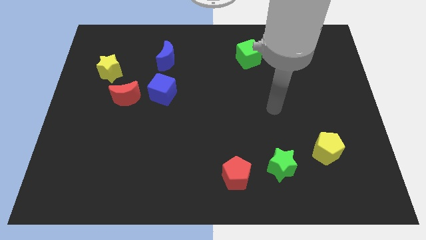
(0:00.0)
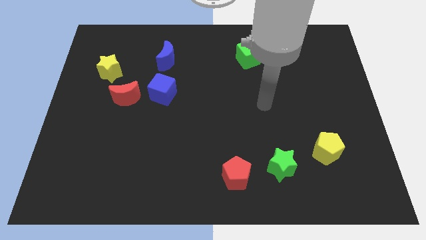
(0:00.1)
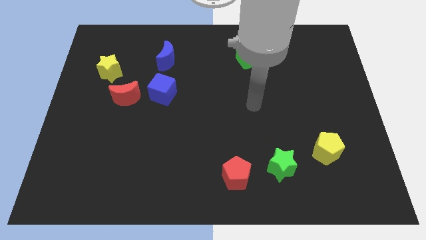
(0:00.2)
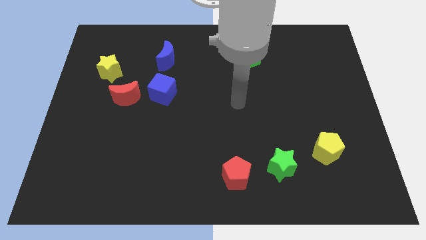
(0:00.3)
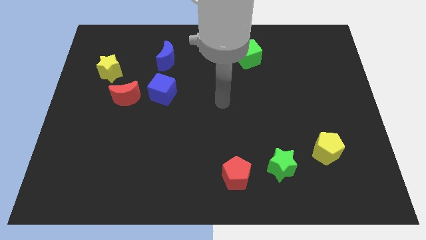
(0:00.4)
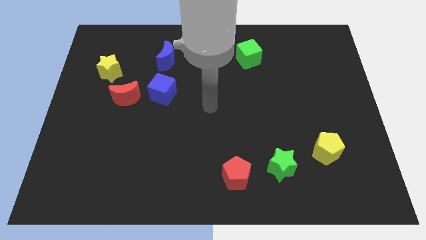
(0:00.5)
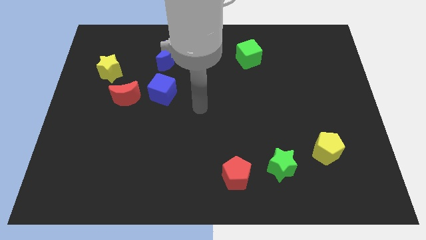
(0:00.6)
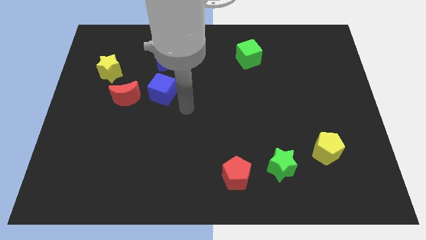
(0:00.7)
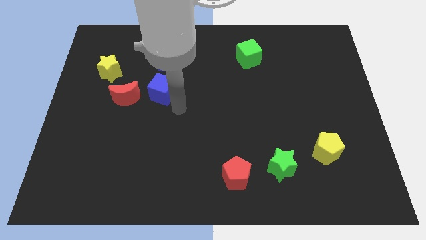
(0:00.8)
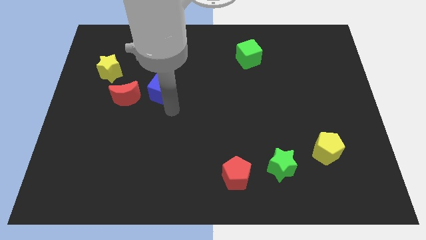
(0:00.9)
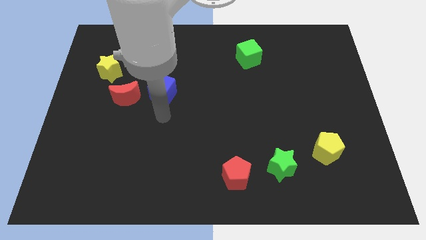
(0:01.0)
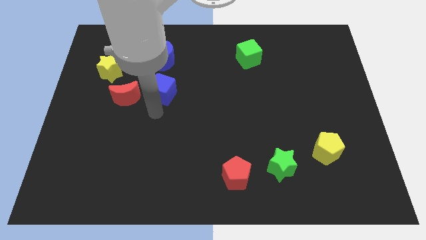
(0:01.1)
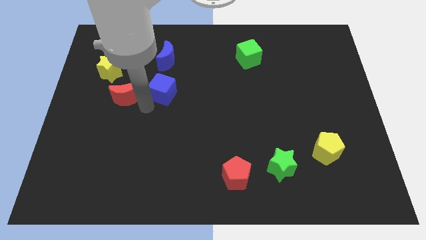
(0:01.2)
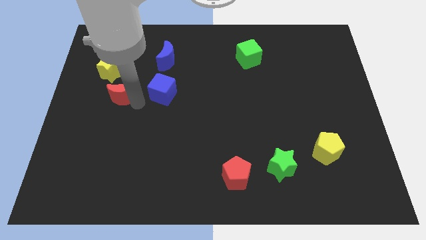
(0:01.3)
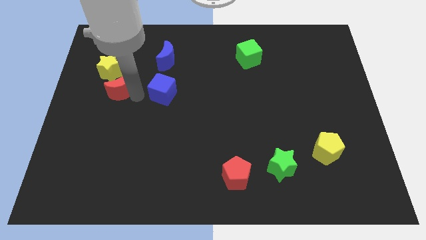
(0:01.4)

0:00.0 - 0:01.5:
move the blue cube away from the red moon

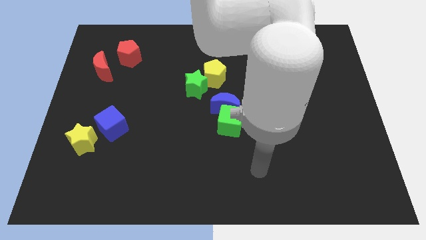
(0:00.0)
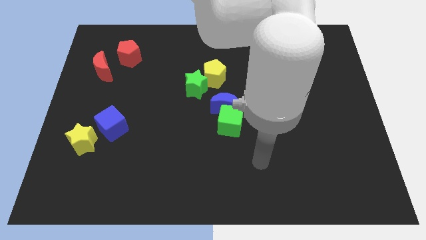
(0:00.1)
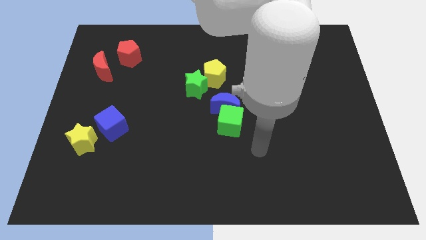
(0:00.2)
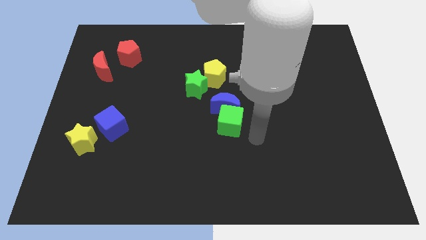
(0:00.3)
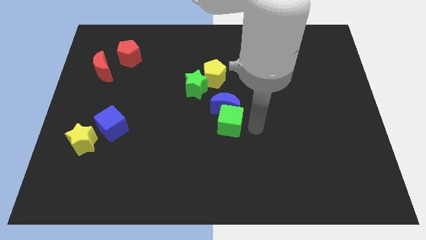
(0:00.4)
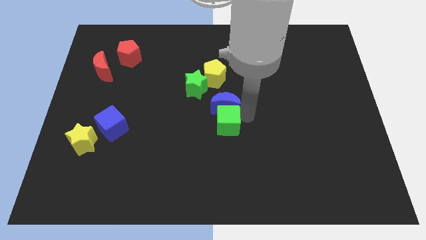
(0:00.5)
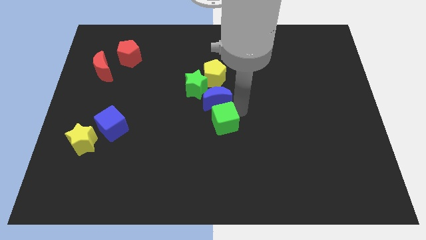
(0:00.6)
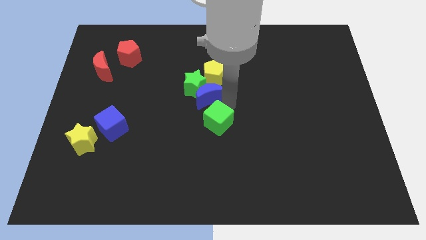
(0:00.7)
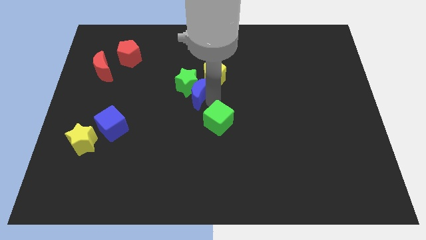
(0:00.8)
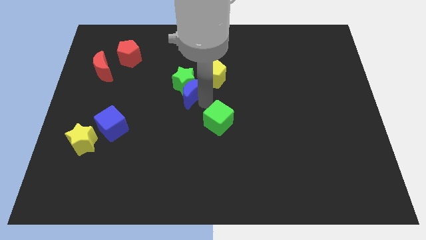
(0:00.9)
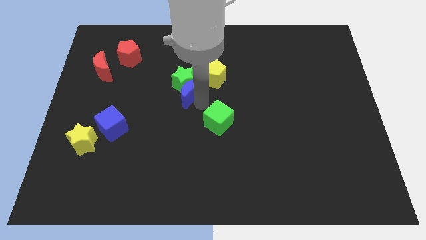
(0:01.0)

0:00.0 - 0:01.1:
move the green cube away from the blue moon

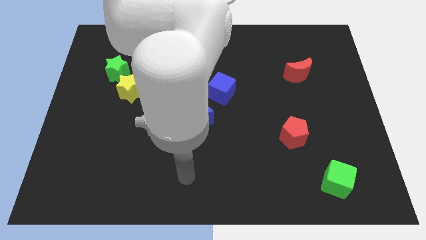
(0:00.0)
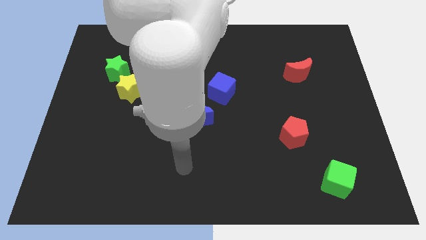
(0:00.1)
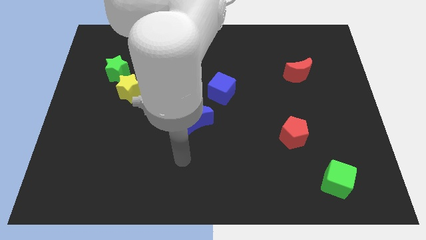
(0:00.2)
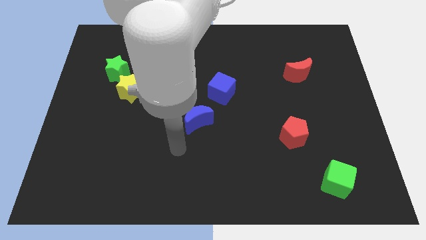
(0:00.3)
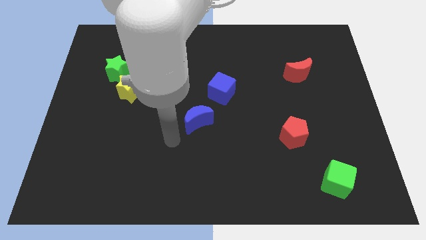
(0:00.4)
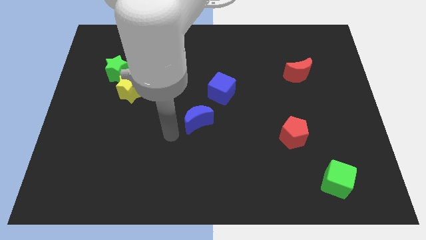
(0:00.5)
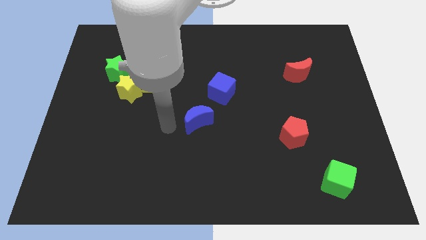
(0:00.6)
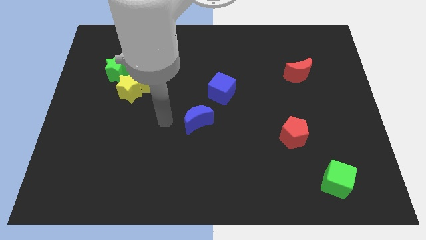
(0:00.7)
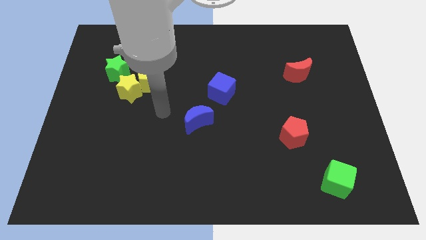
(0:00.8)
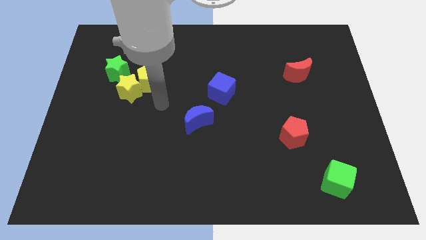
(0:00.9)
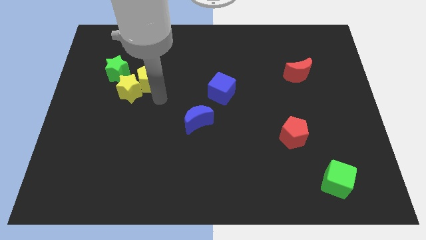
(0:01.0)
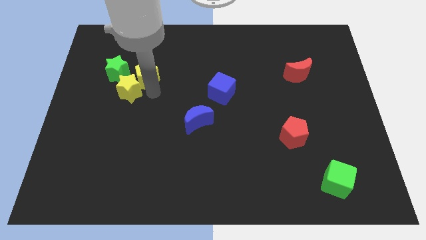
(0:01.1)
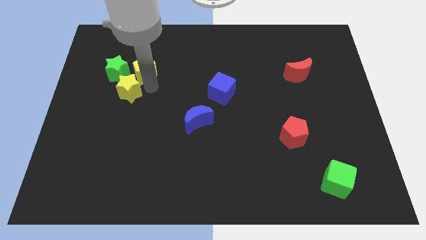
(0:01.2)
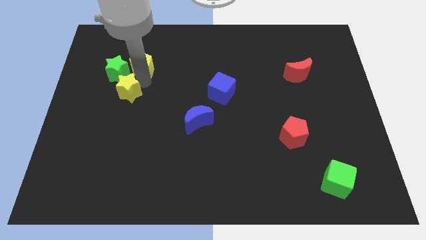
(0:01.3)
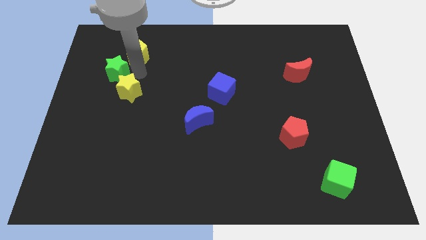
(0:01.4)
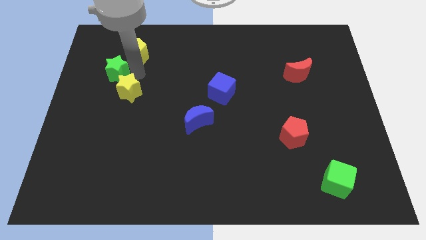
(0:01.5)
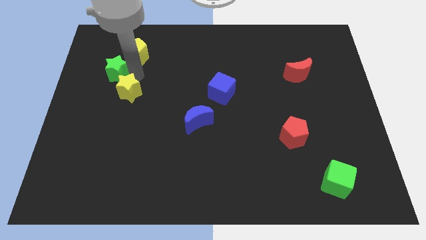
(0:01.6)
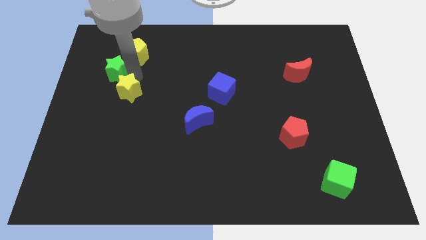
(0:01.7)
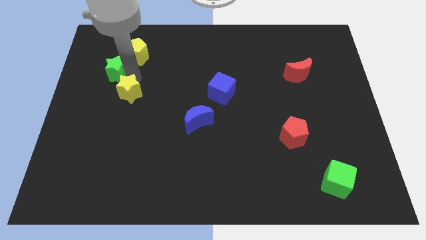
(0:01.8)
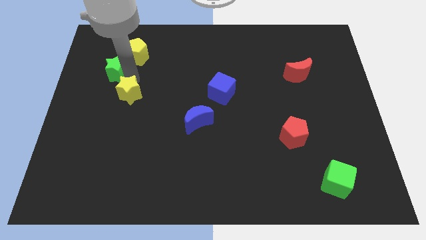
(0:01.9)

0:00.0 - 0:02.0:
move the yellow star away from the yellow pentagon and green star

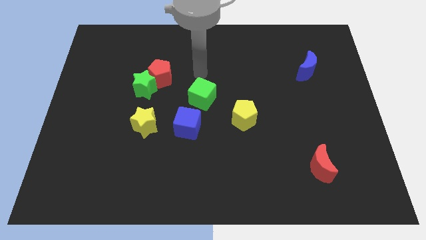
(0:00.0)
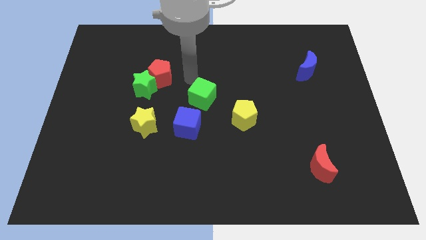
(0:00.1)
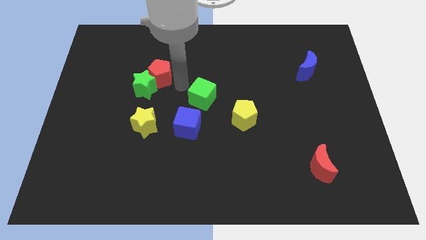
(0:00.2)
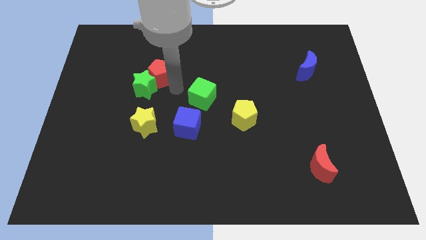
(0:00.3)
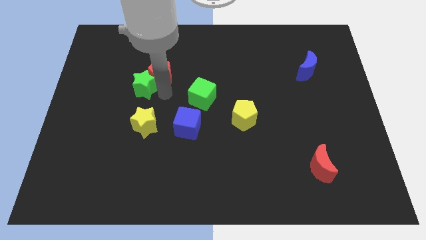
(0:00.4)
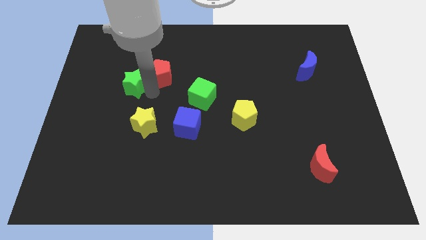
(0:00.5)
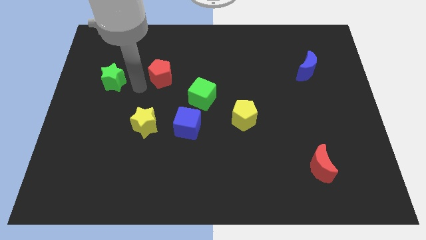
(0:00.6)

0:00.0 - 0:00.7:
pull the red pentagon apart from the green star

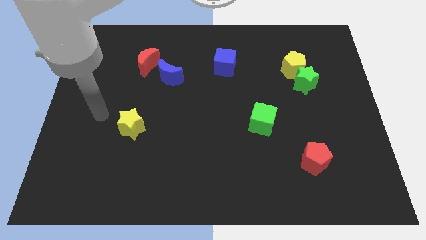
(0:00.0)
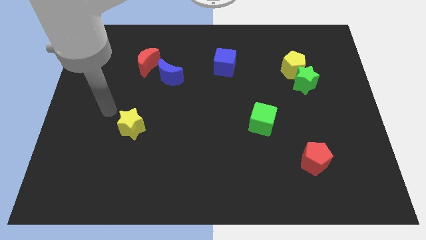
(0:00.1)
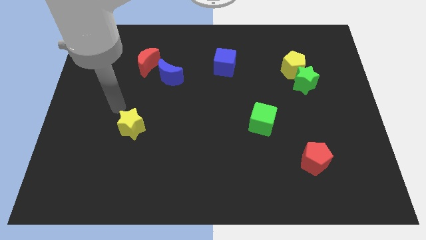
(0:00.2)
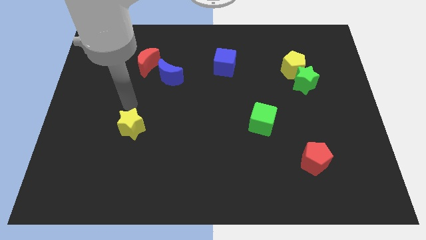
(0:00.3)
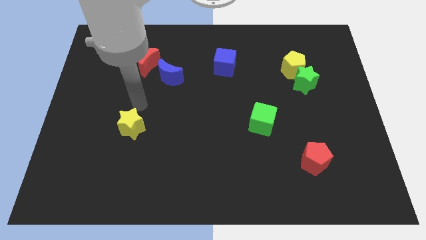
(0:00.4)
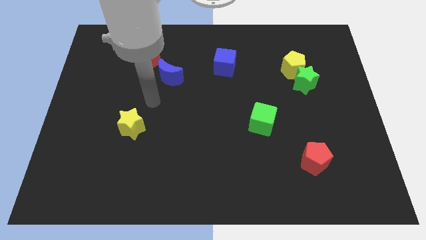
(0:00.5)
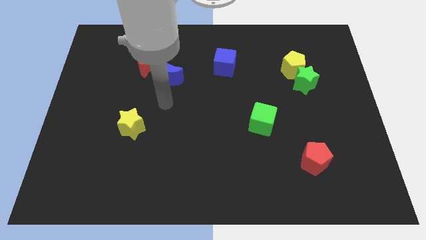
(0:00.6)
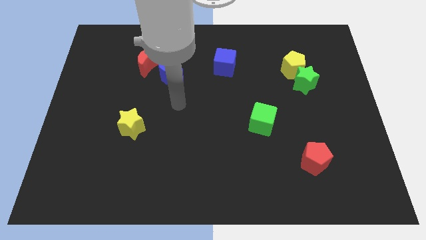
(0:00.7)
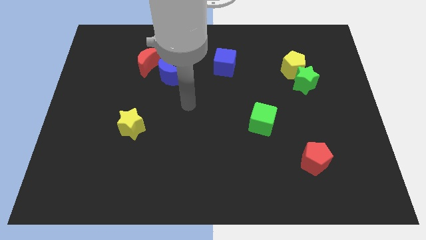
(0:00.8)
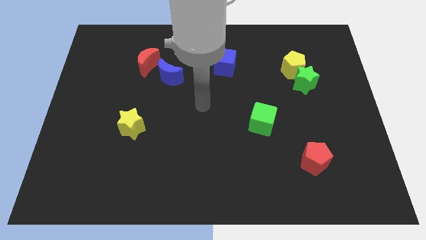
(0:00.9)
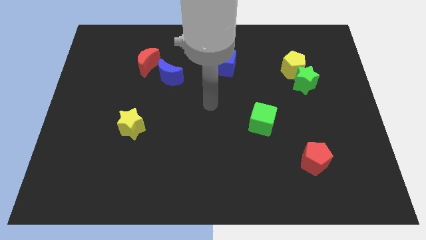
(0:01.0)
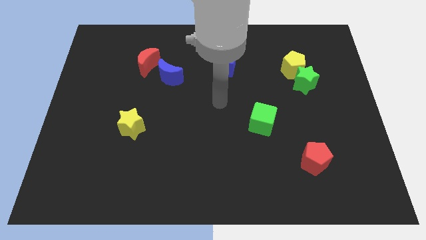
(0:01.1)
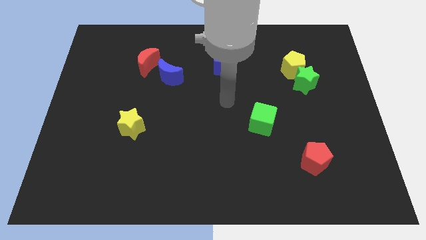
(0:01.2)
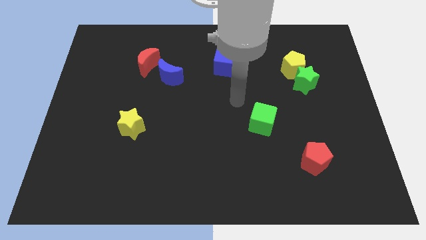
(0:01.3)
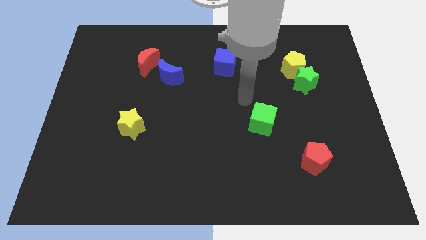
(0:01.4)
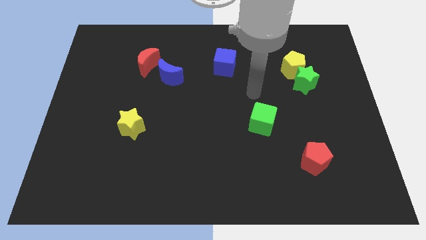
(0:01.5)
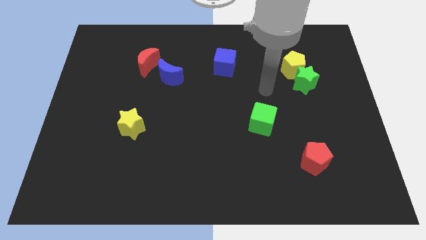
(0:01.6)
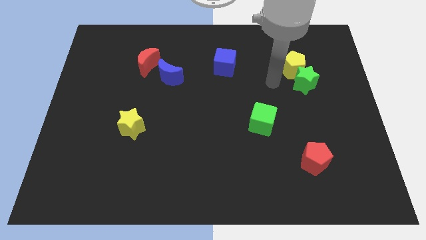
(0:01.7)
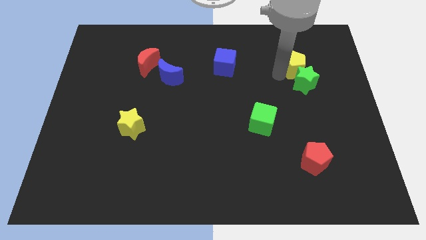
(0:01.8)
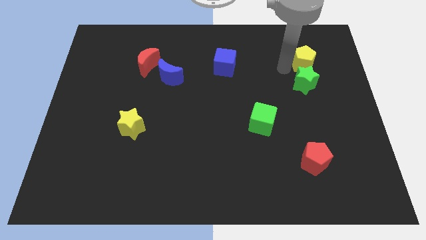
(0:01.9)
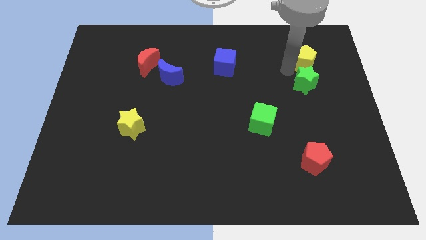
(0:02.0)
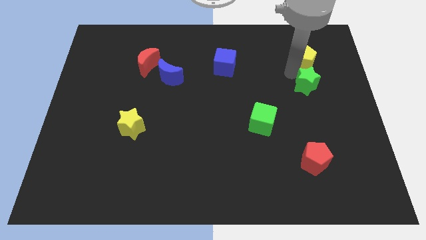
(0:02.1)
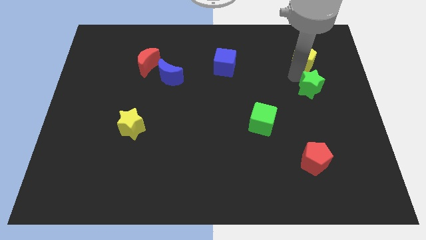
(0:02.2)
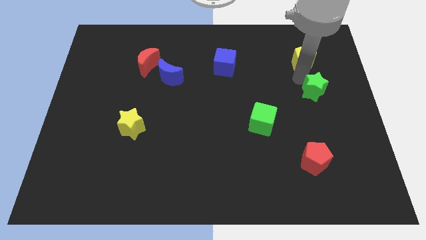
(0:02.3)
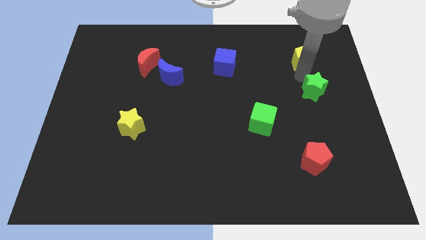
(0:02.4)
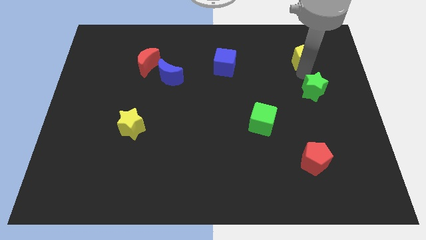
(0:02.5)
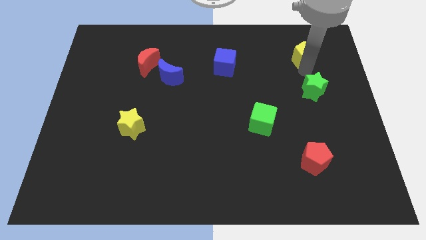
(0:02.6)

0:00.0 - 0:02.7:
move the green star away from the yellow pentagon

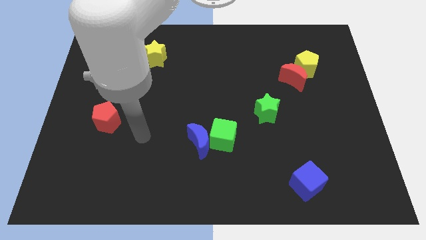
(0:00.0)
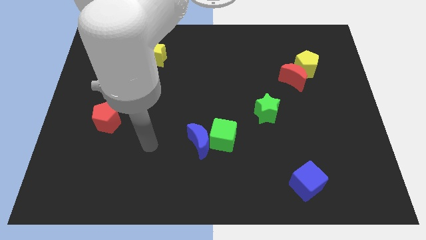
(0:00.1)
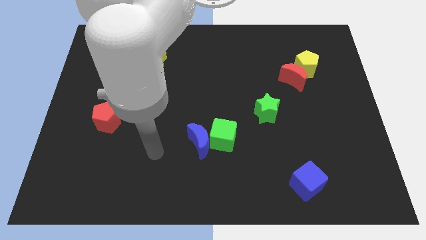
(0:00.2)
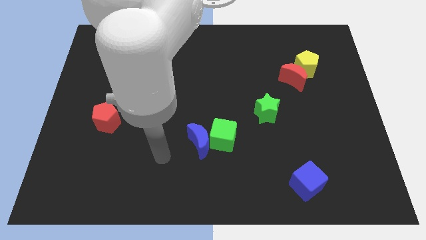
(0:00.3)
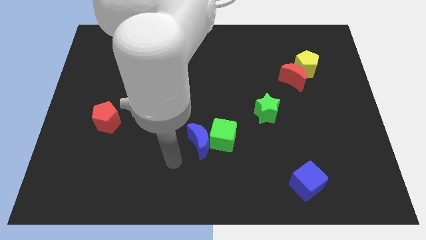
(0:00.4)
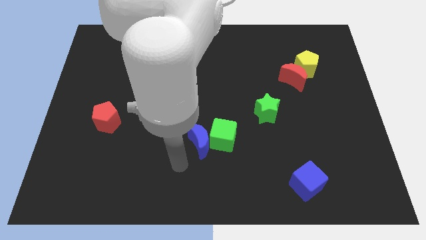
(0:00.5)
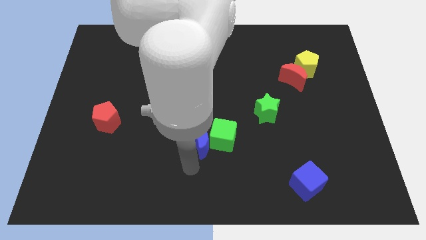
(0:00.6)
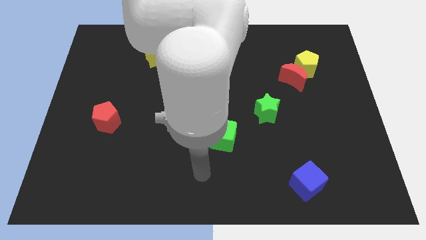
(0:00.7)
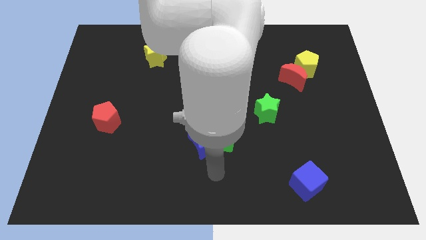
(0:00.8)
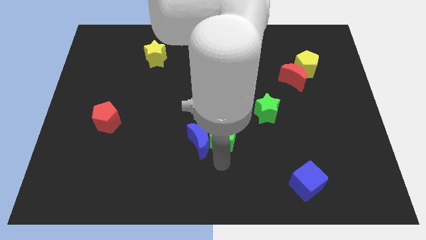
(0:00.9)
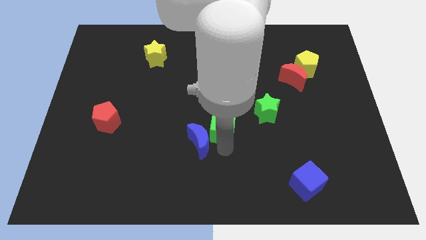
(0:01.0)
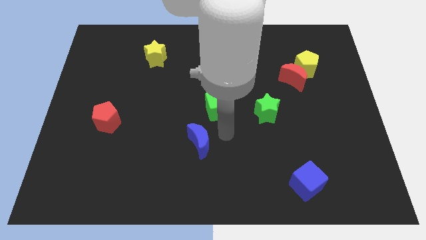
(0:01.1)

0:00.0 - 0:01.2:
separate the blue moon from the green cube
